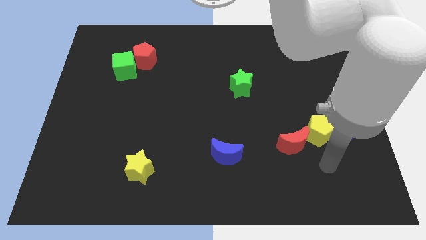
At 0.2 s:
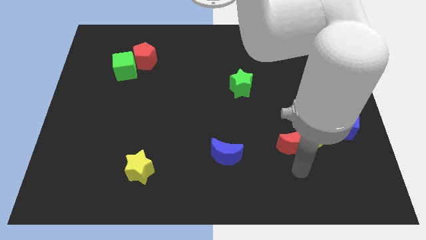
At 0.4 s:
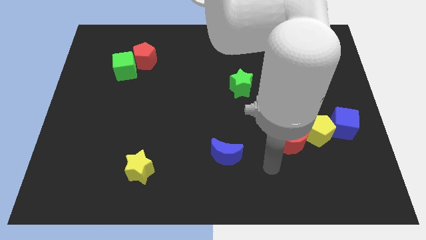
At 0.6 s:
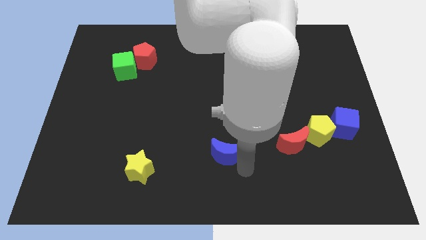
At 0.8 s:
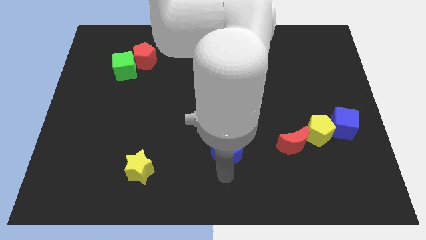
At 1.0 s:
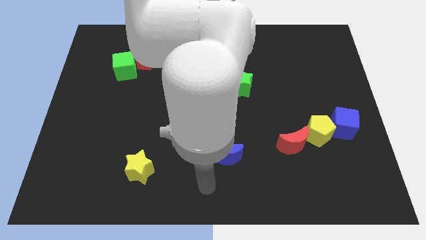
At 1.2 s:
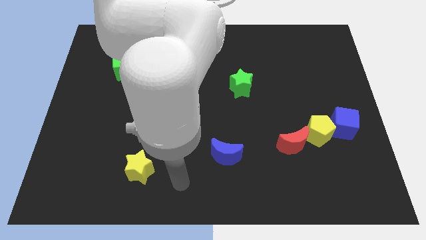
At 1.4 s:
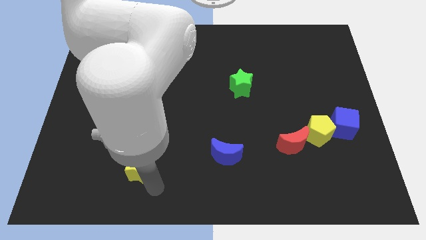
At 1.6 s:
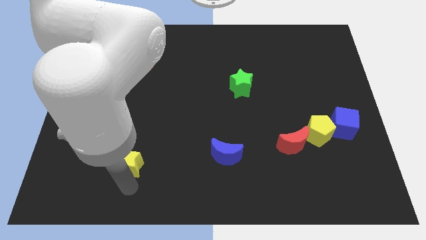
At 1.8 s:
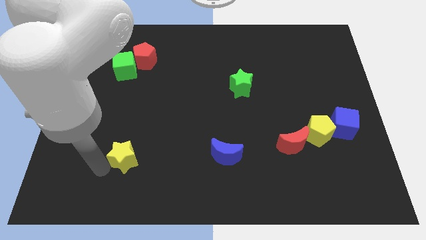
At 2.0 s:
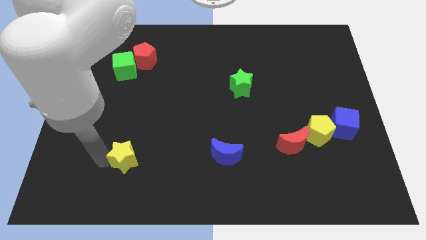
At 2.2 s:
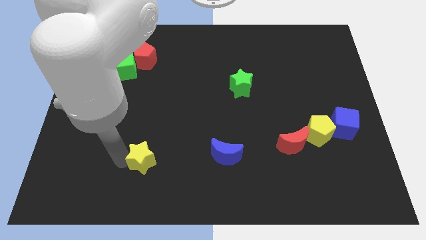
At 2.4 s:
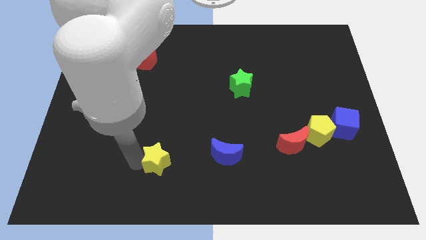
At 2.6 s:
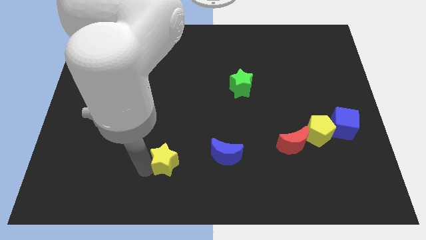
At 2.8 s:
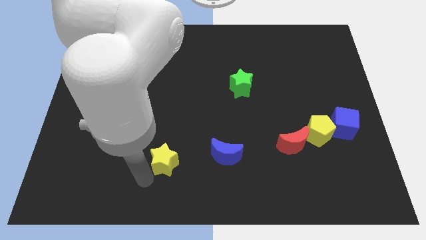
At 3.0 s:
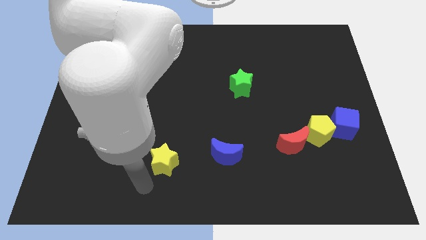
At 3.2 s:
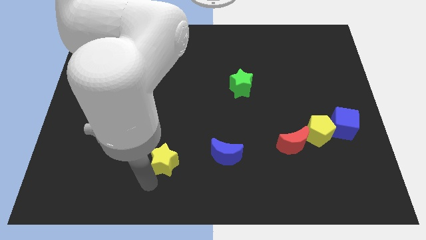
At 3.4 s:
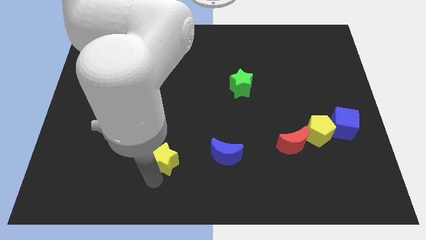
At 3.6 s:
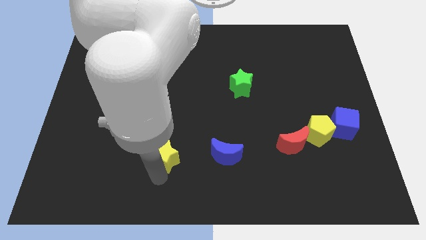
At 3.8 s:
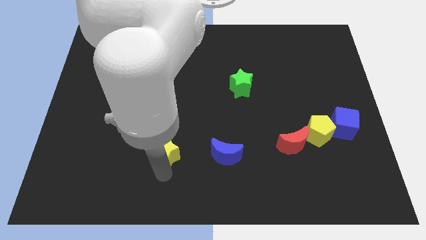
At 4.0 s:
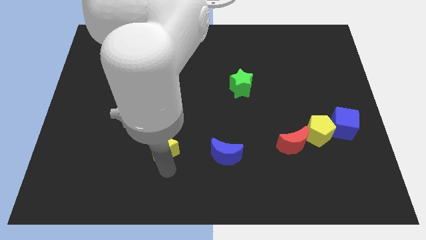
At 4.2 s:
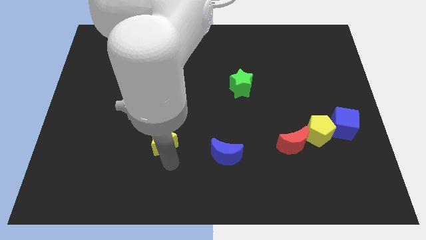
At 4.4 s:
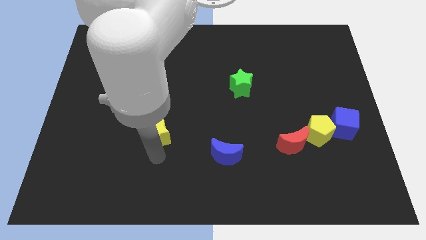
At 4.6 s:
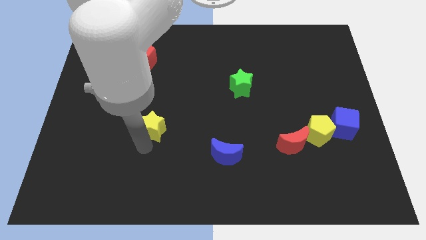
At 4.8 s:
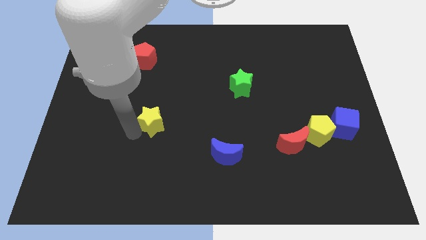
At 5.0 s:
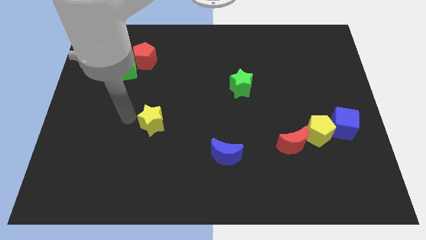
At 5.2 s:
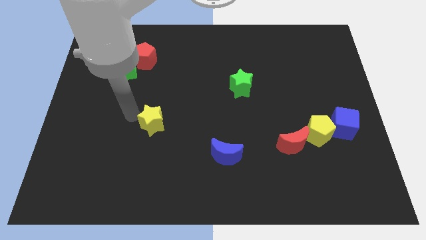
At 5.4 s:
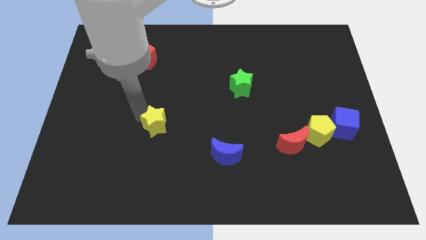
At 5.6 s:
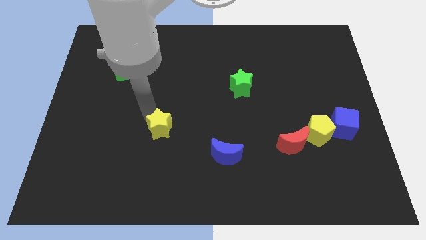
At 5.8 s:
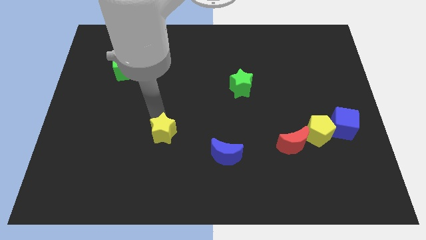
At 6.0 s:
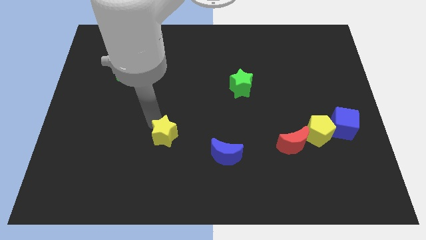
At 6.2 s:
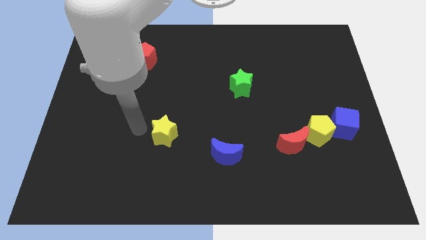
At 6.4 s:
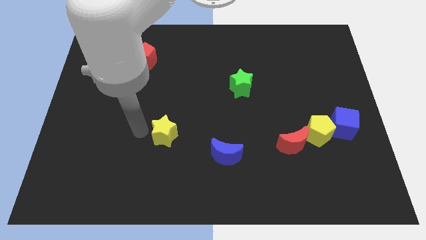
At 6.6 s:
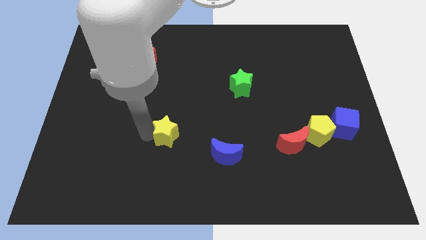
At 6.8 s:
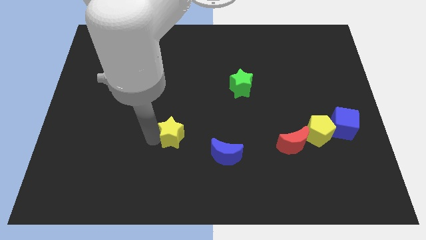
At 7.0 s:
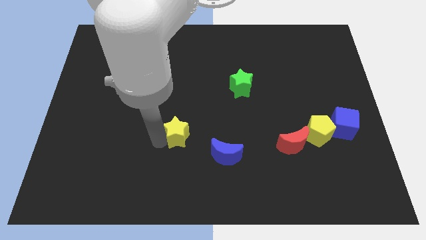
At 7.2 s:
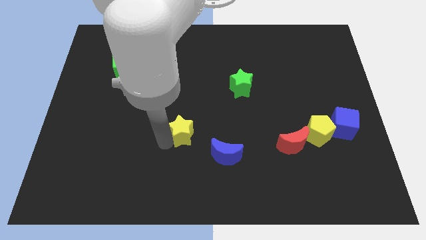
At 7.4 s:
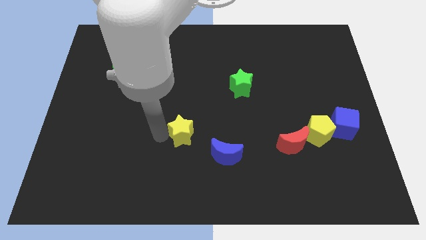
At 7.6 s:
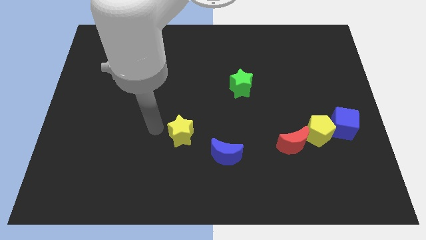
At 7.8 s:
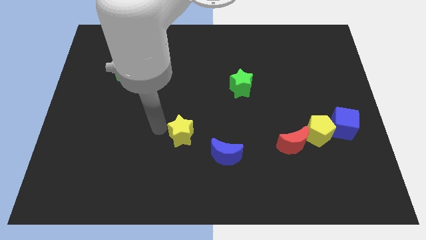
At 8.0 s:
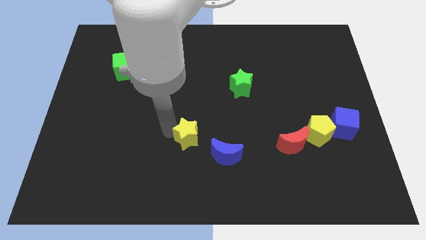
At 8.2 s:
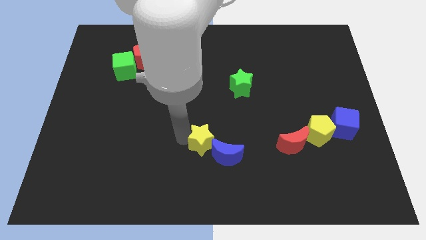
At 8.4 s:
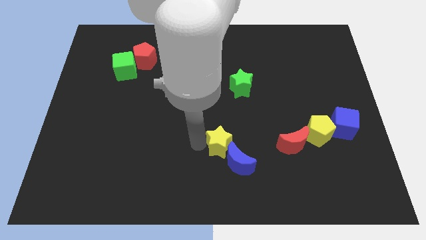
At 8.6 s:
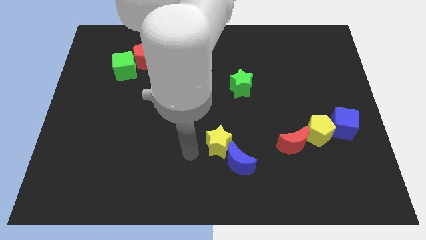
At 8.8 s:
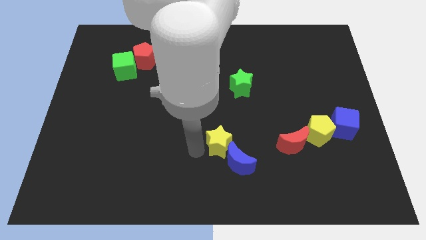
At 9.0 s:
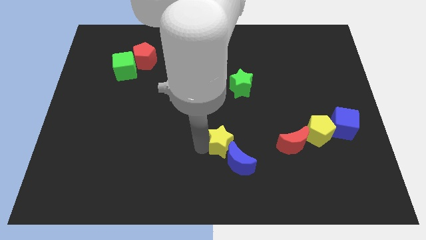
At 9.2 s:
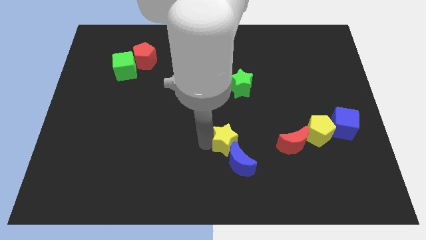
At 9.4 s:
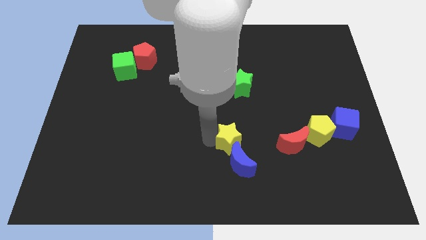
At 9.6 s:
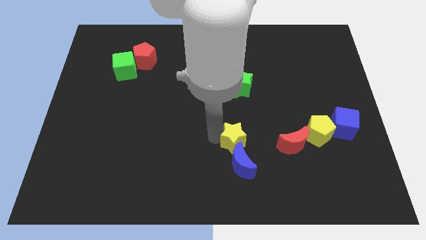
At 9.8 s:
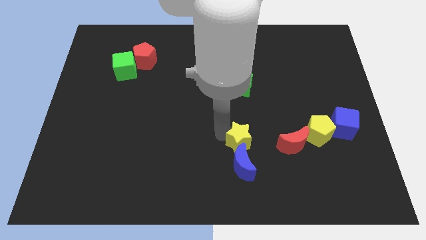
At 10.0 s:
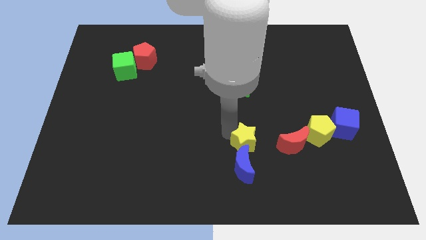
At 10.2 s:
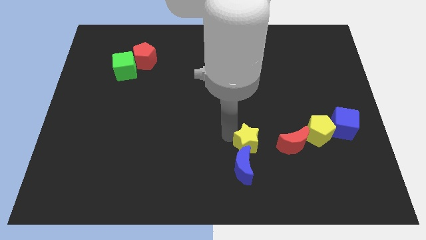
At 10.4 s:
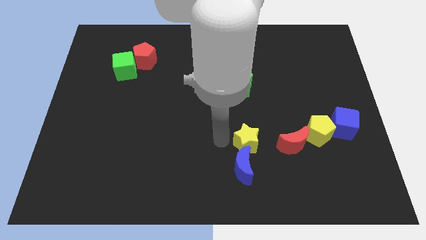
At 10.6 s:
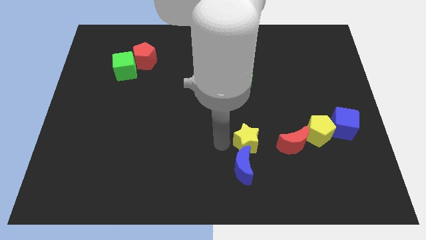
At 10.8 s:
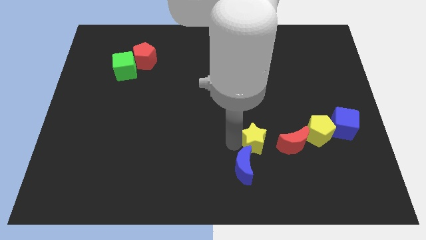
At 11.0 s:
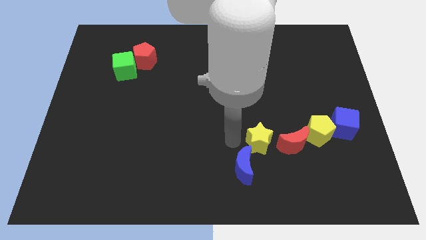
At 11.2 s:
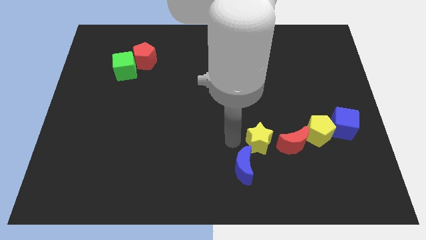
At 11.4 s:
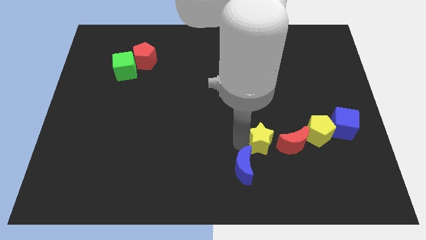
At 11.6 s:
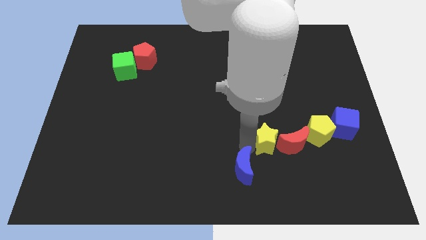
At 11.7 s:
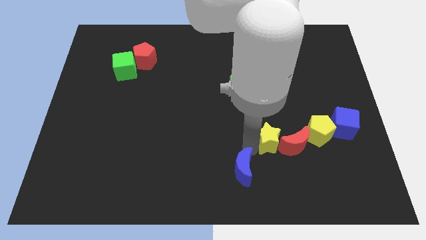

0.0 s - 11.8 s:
push the yellow star to the red moon

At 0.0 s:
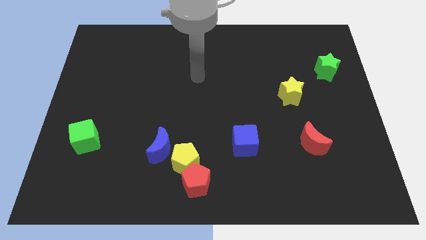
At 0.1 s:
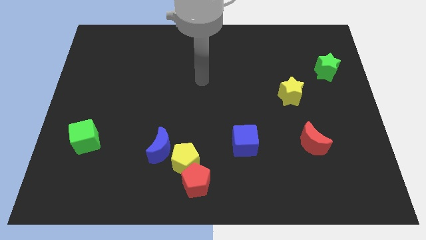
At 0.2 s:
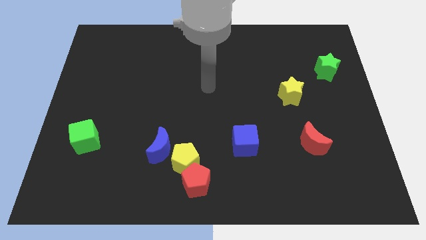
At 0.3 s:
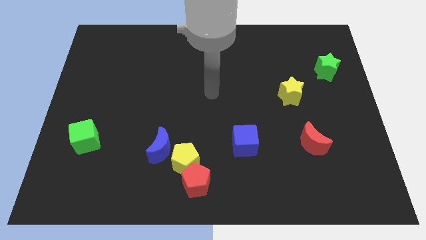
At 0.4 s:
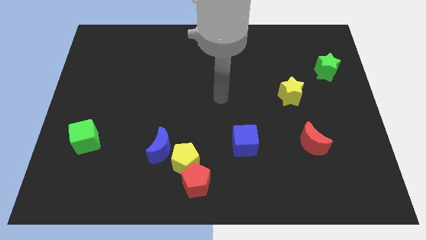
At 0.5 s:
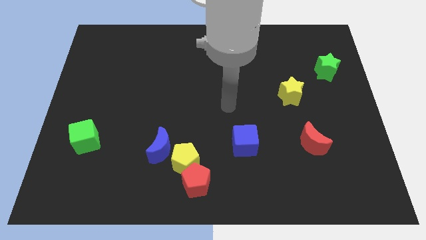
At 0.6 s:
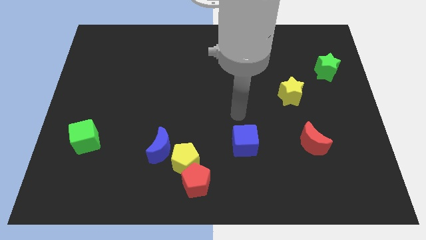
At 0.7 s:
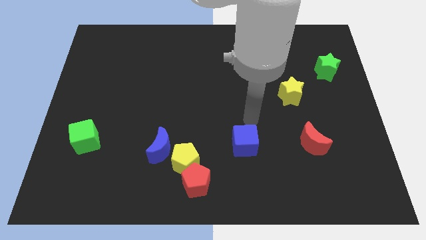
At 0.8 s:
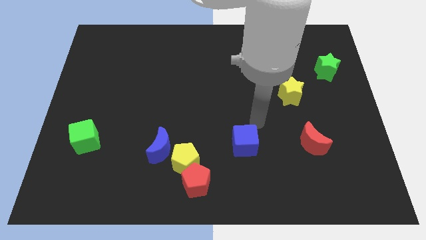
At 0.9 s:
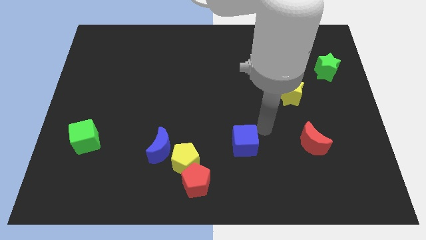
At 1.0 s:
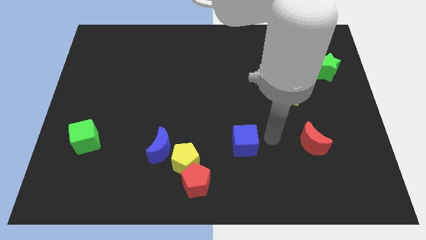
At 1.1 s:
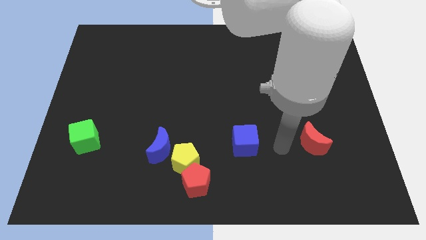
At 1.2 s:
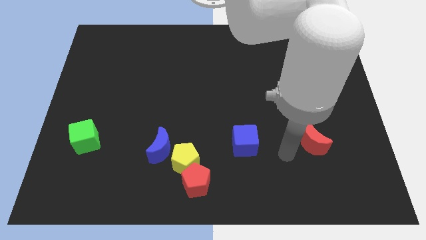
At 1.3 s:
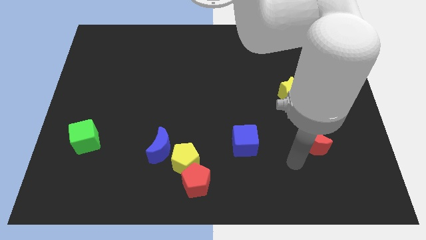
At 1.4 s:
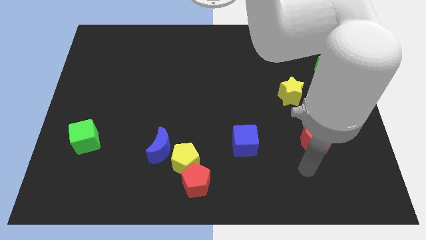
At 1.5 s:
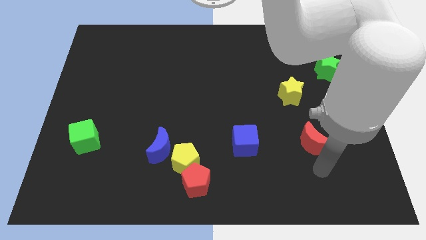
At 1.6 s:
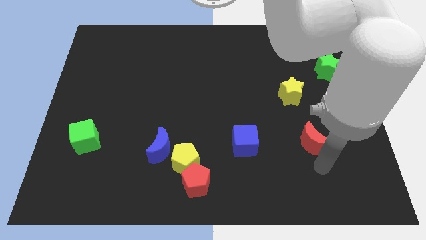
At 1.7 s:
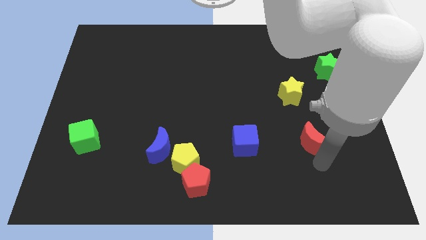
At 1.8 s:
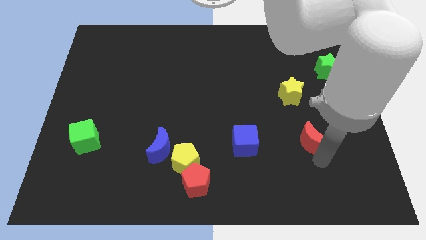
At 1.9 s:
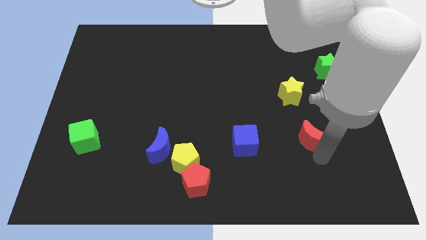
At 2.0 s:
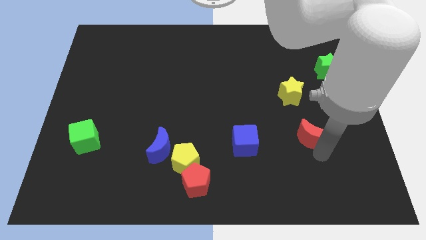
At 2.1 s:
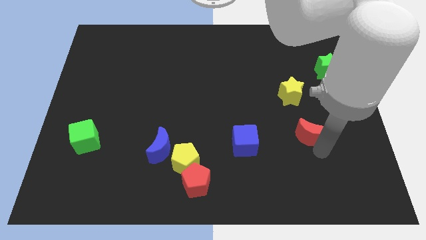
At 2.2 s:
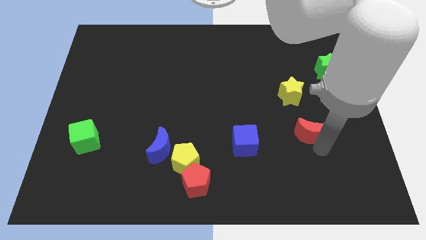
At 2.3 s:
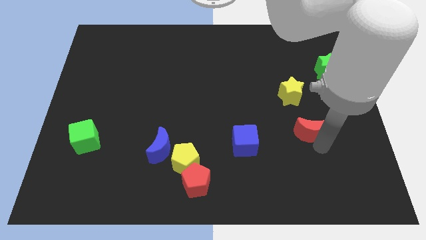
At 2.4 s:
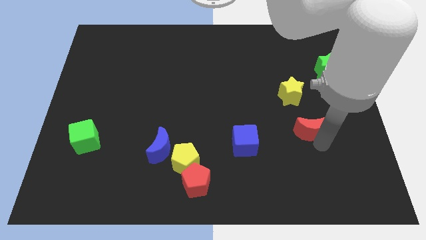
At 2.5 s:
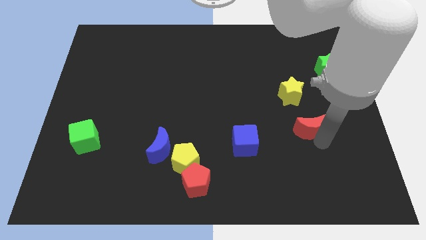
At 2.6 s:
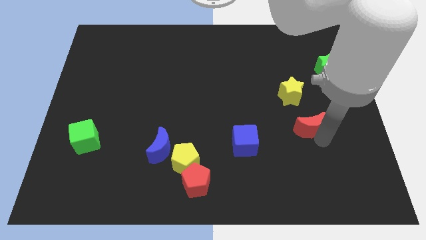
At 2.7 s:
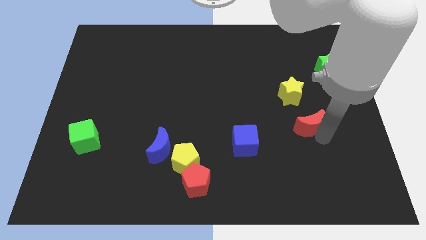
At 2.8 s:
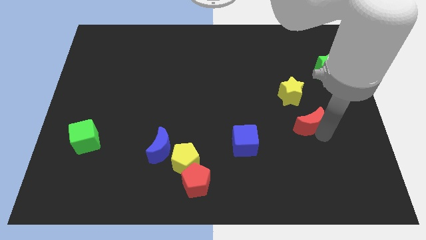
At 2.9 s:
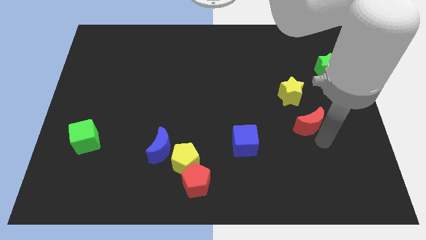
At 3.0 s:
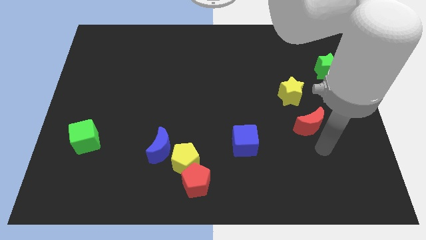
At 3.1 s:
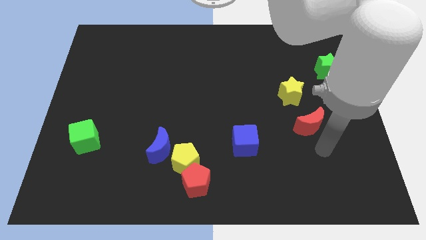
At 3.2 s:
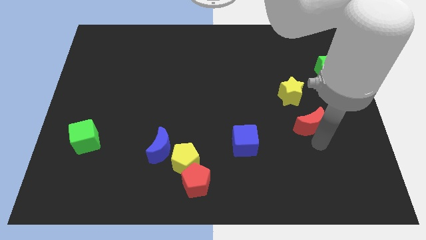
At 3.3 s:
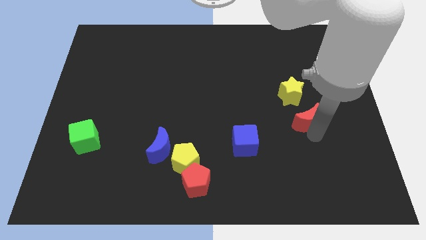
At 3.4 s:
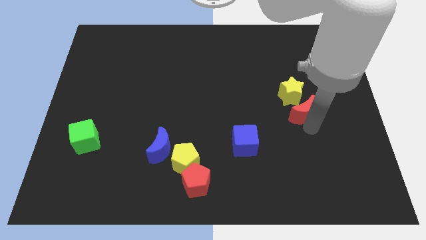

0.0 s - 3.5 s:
move the red moon next to the yellow star
